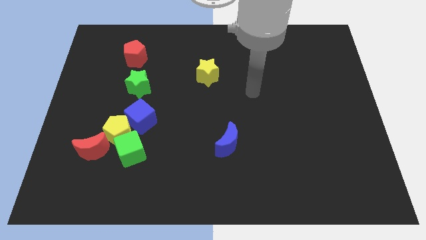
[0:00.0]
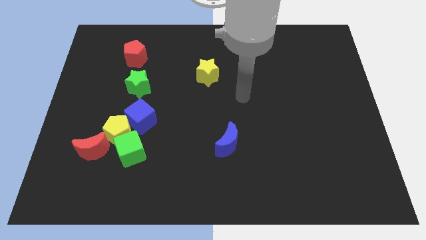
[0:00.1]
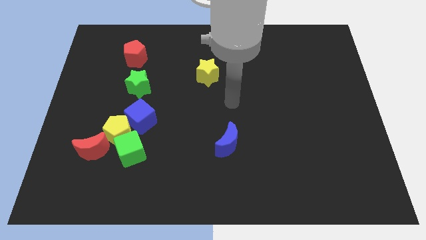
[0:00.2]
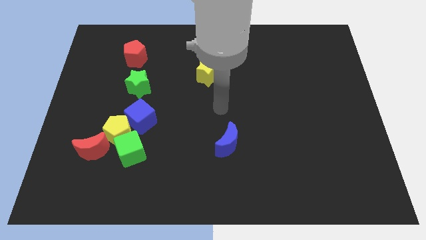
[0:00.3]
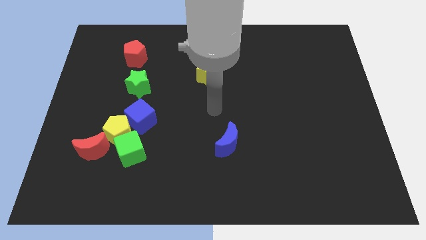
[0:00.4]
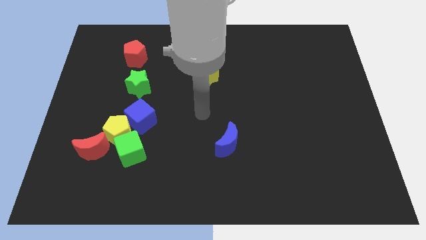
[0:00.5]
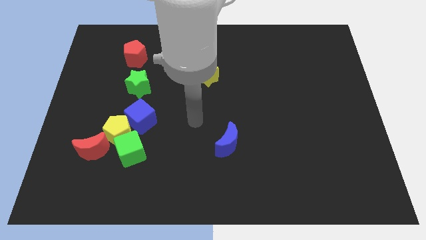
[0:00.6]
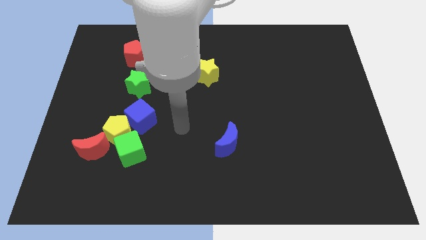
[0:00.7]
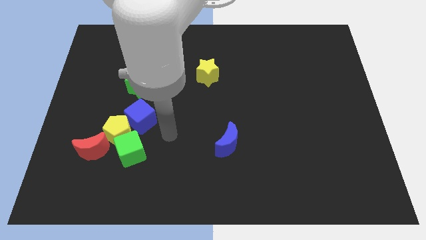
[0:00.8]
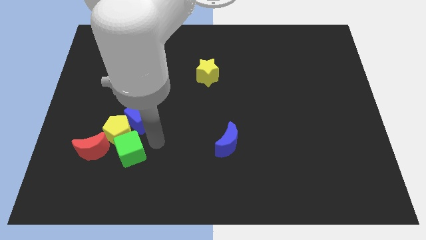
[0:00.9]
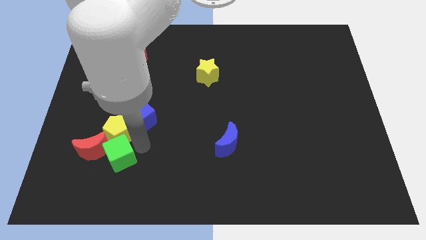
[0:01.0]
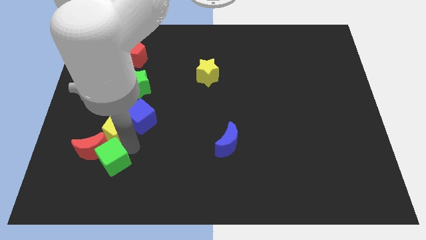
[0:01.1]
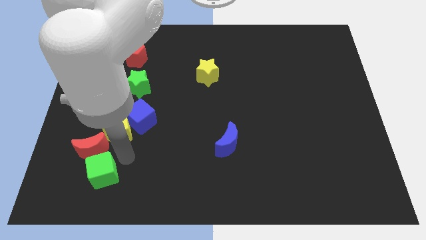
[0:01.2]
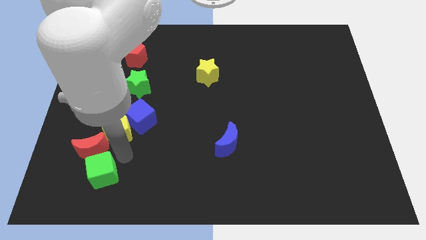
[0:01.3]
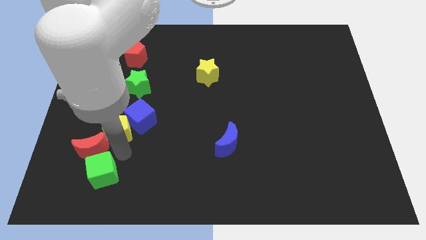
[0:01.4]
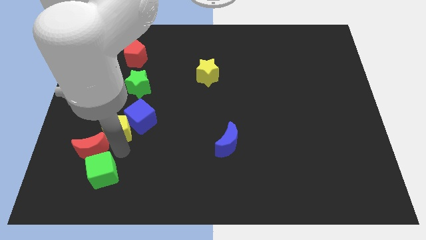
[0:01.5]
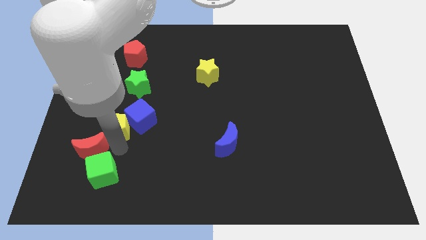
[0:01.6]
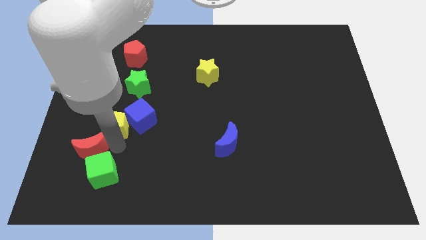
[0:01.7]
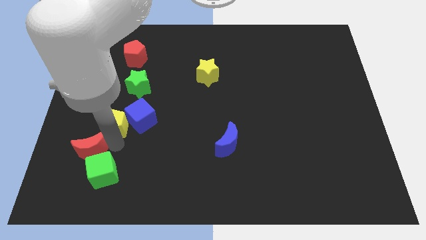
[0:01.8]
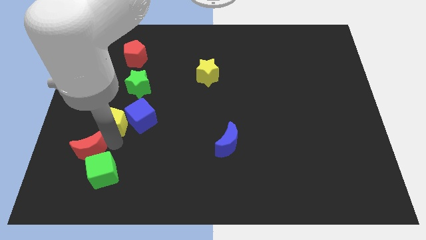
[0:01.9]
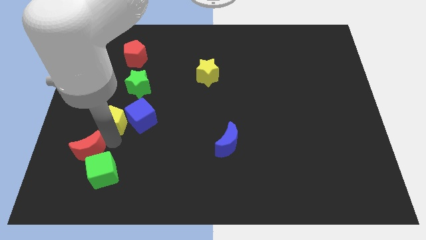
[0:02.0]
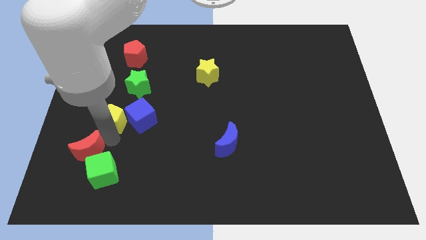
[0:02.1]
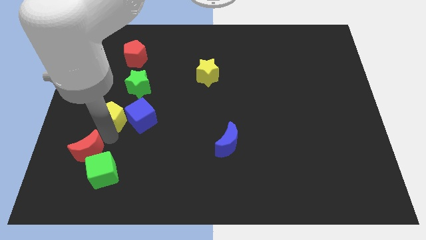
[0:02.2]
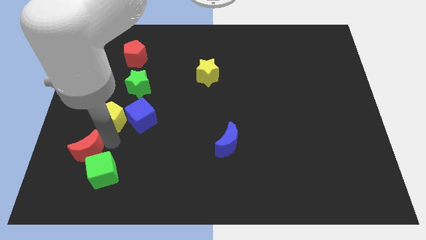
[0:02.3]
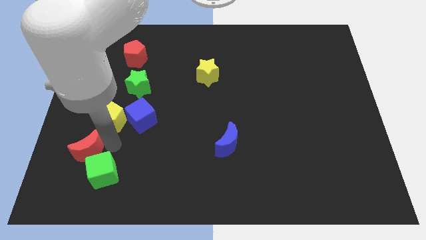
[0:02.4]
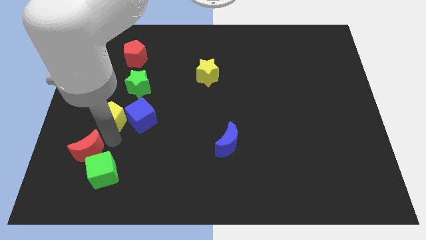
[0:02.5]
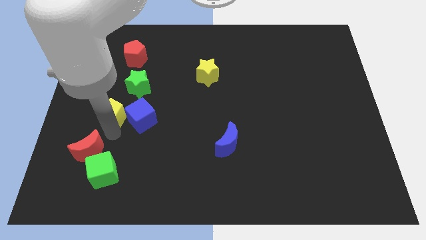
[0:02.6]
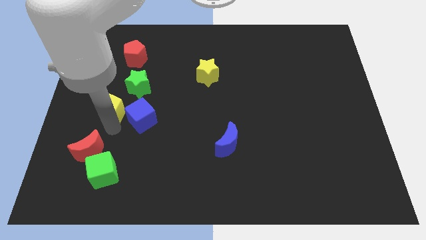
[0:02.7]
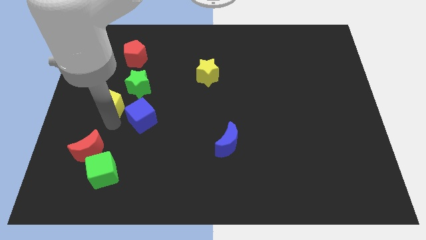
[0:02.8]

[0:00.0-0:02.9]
pull the yellow pentagon apart from the group of blocks

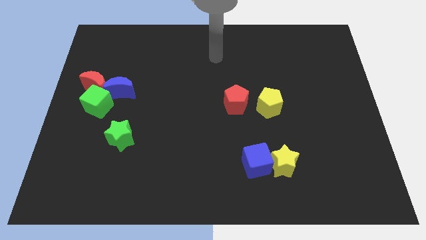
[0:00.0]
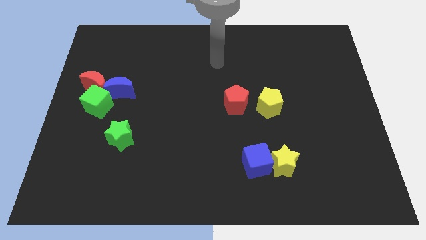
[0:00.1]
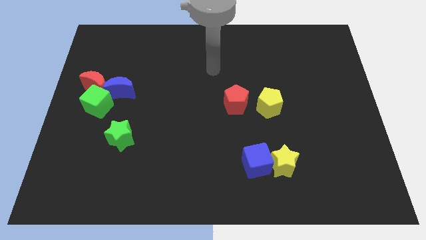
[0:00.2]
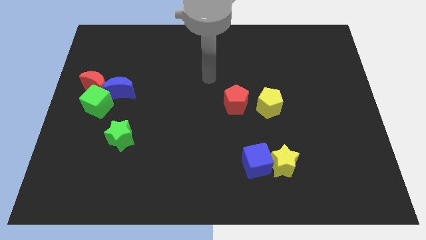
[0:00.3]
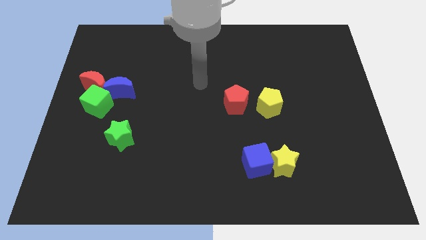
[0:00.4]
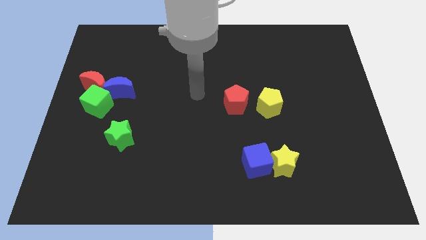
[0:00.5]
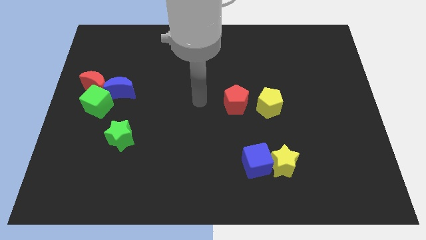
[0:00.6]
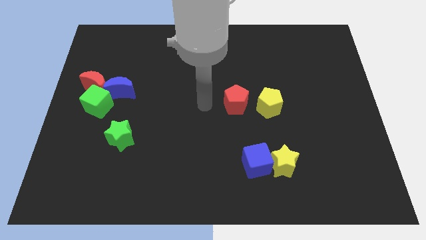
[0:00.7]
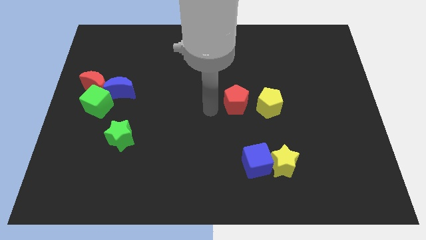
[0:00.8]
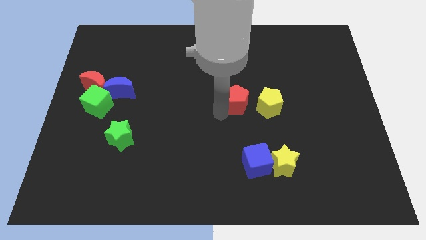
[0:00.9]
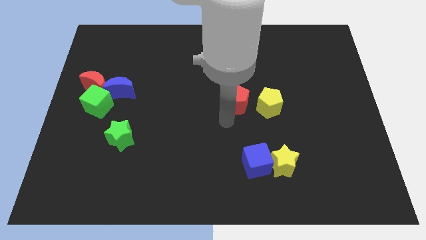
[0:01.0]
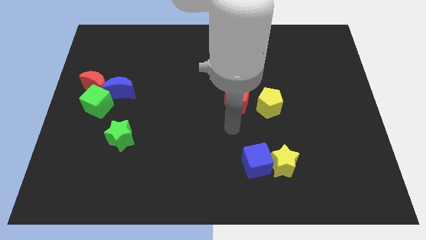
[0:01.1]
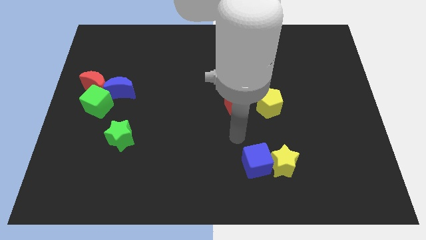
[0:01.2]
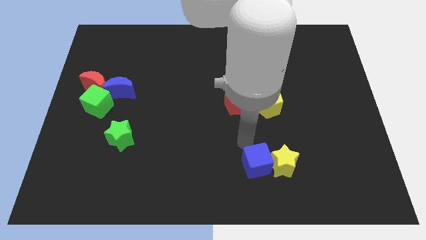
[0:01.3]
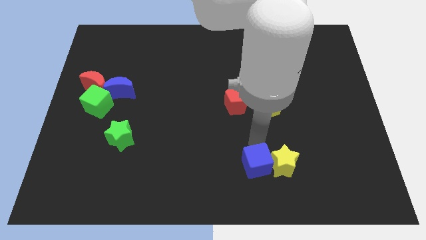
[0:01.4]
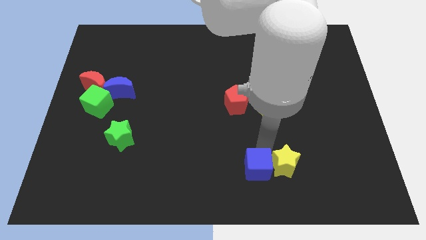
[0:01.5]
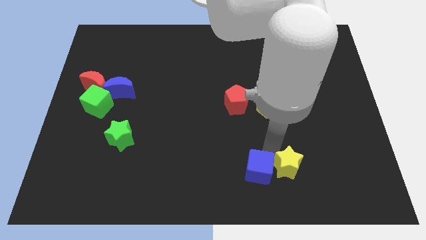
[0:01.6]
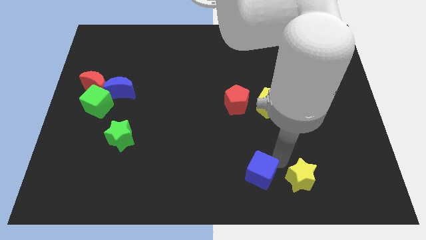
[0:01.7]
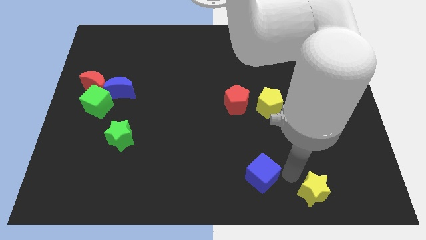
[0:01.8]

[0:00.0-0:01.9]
move the blue cube away from the yellow star

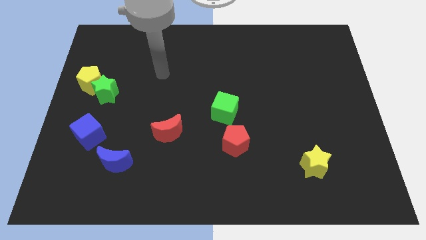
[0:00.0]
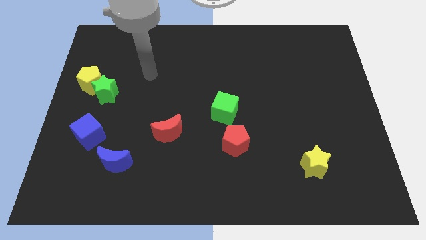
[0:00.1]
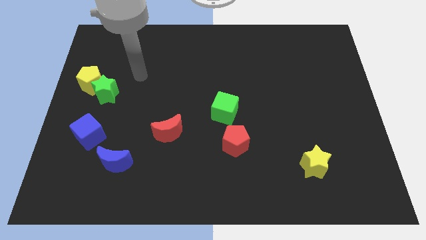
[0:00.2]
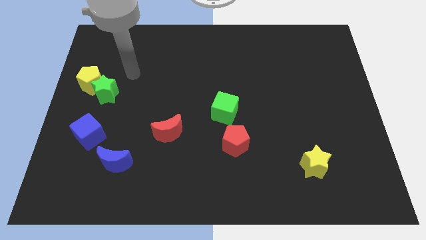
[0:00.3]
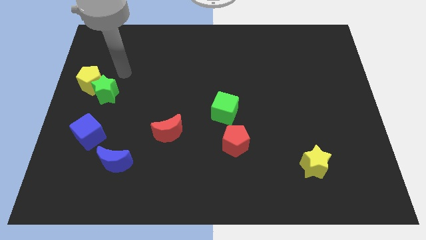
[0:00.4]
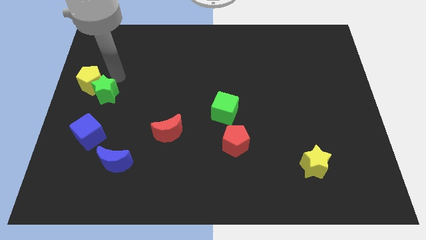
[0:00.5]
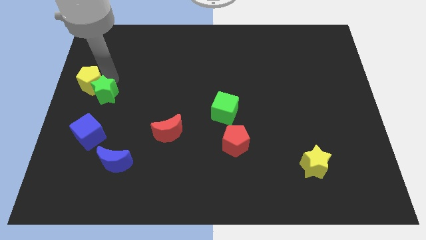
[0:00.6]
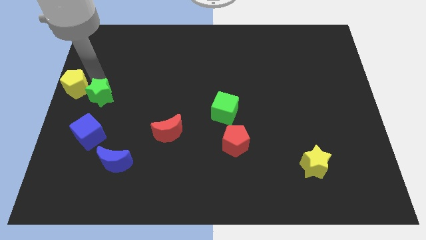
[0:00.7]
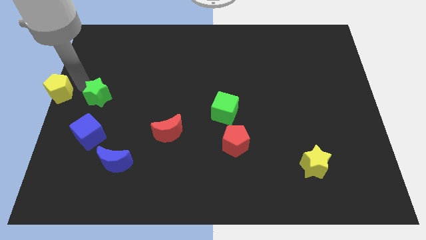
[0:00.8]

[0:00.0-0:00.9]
move the green star away from the yellow pentagon

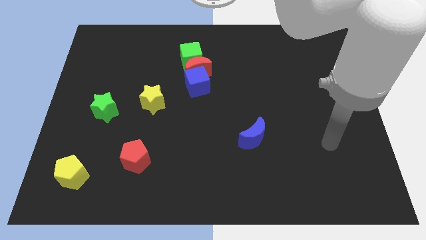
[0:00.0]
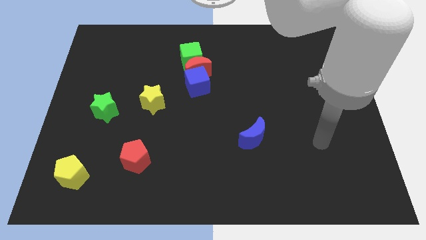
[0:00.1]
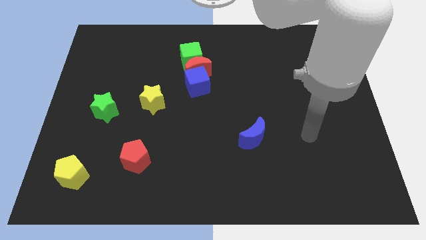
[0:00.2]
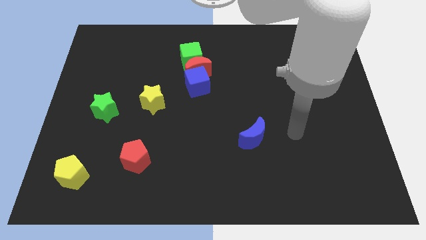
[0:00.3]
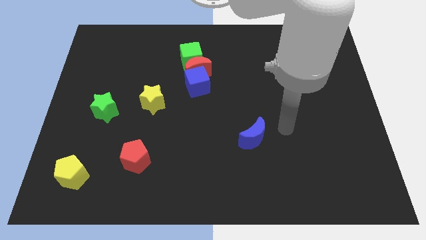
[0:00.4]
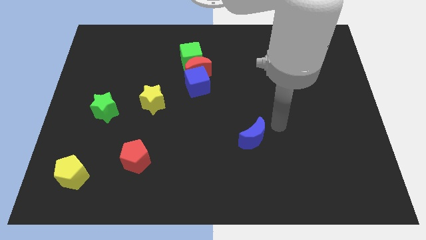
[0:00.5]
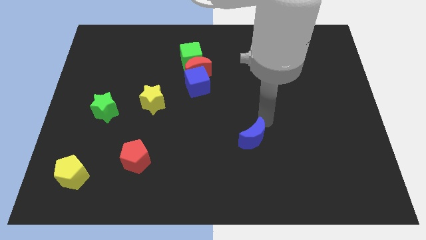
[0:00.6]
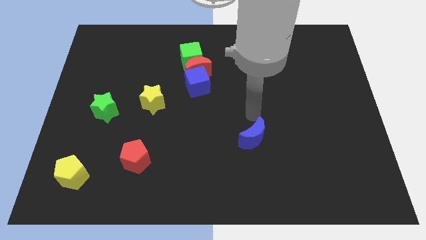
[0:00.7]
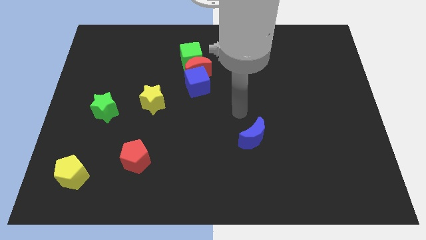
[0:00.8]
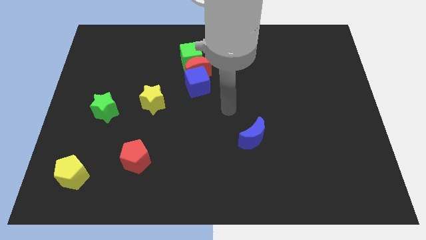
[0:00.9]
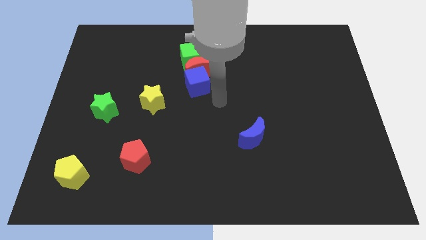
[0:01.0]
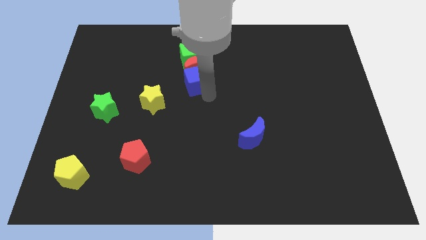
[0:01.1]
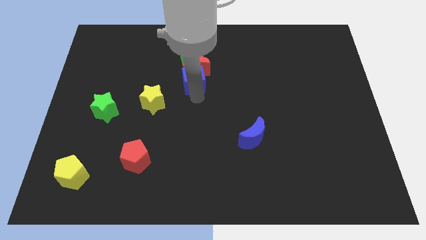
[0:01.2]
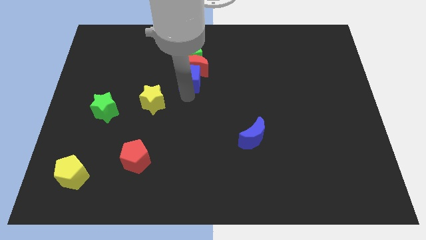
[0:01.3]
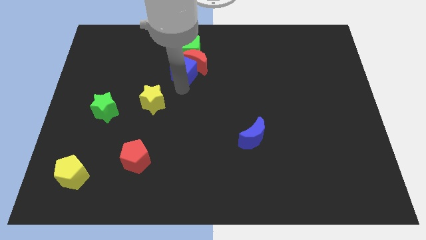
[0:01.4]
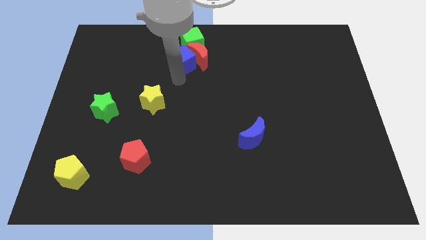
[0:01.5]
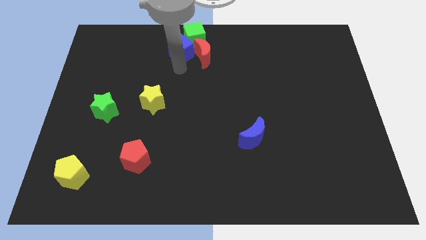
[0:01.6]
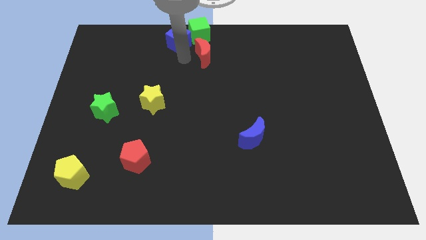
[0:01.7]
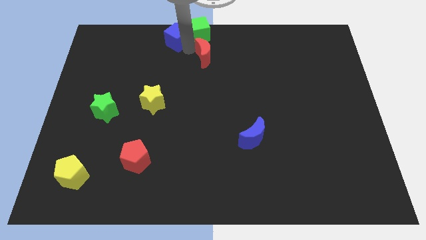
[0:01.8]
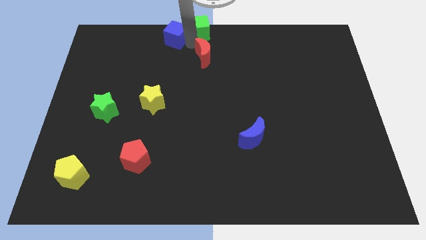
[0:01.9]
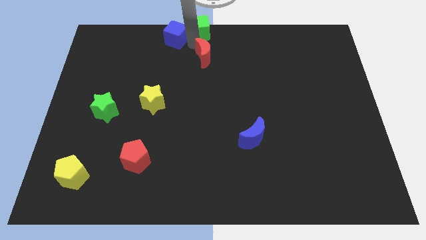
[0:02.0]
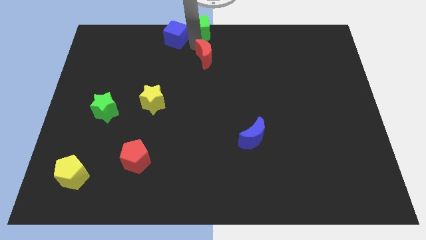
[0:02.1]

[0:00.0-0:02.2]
pull the red moon apart from the green cube and blue cube

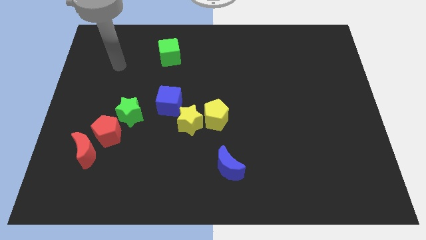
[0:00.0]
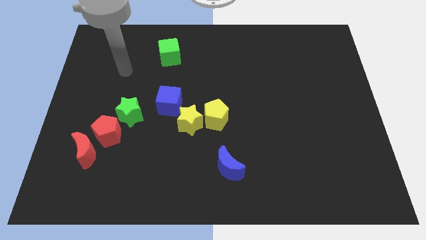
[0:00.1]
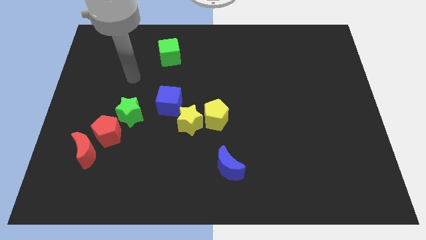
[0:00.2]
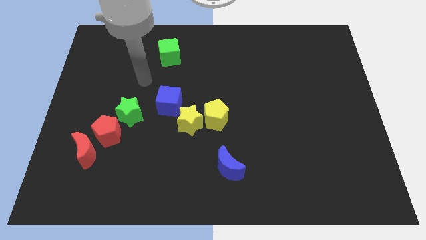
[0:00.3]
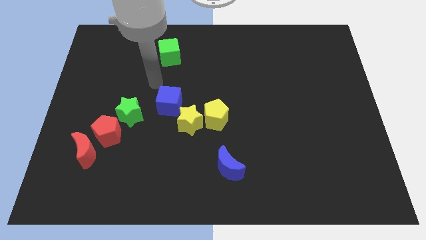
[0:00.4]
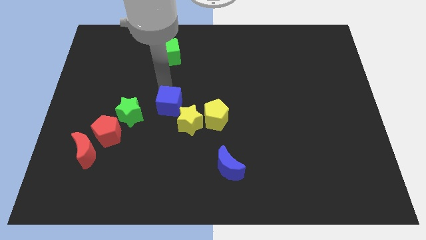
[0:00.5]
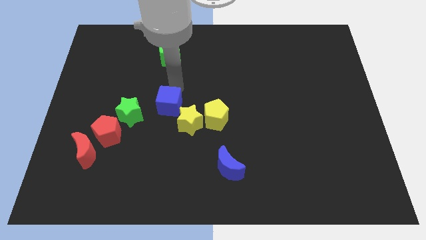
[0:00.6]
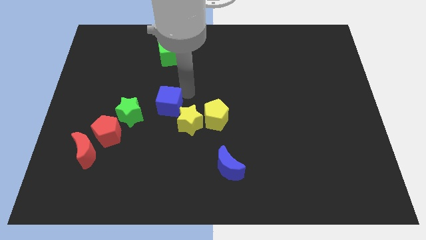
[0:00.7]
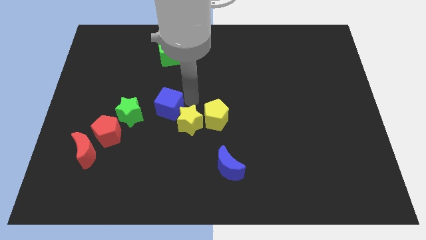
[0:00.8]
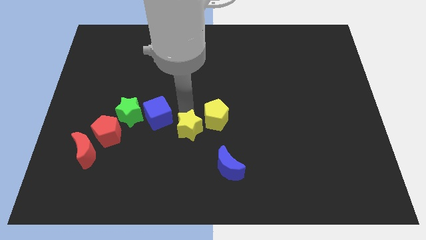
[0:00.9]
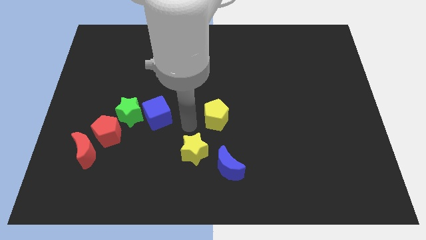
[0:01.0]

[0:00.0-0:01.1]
separate the yellow pentagon from the yellow star

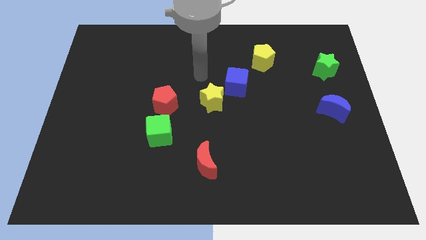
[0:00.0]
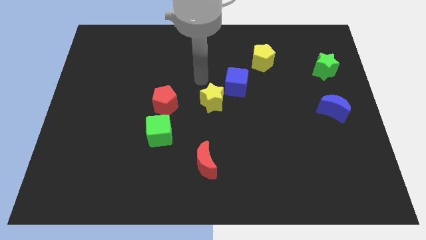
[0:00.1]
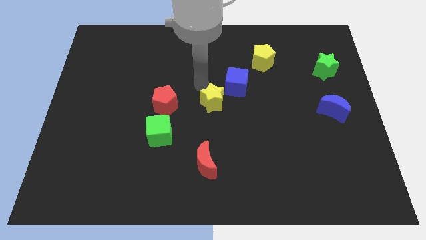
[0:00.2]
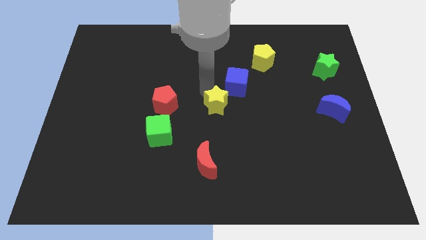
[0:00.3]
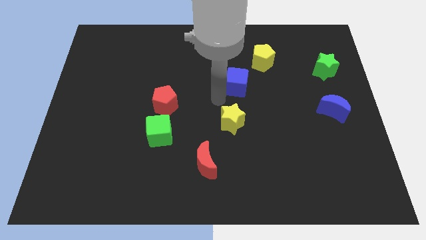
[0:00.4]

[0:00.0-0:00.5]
pull the blue cube apart from the yellow star

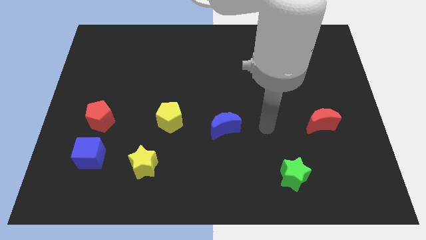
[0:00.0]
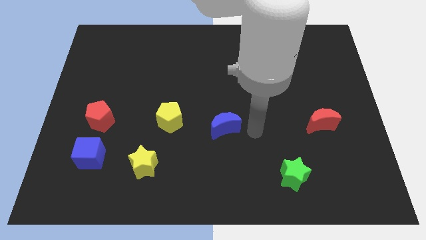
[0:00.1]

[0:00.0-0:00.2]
separate the red pentagon from the blue cube
